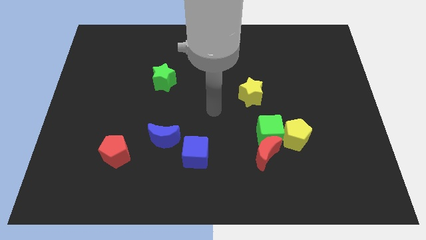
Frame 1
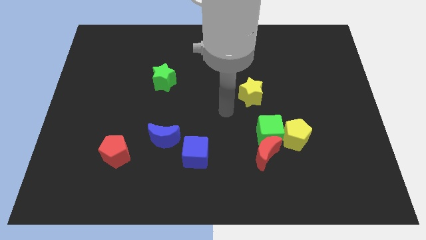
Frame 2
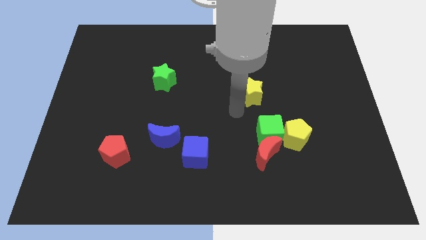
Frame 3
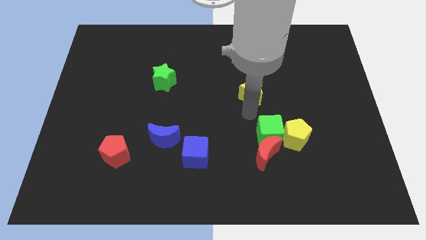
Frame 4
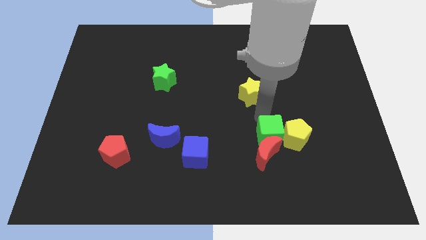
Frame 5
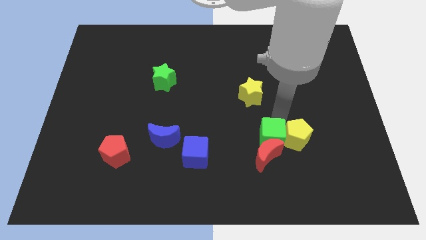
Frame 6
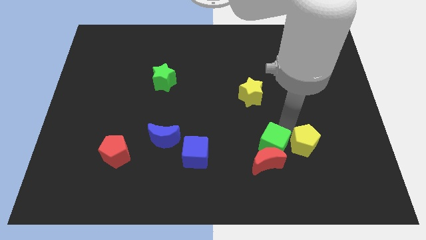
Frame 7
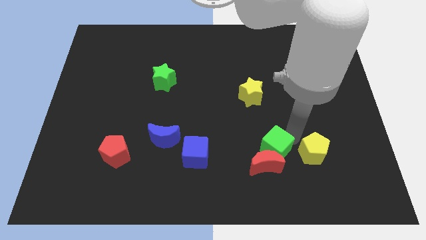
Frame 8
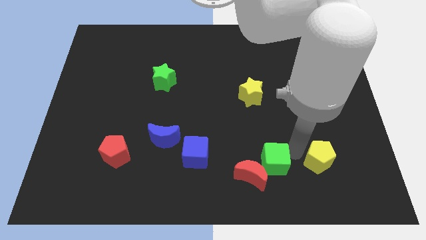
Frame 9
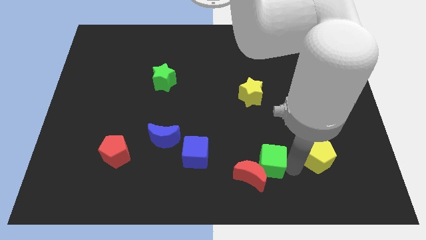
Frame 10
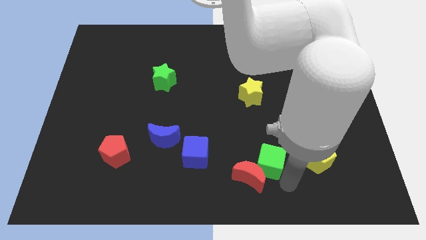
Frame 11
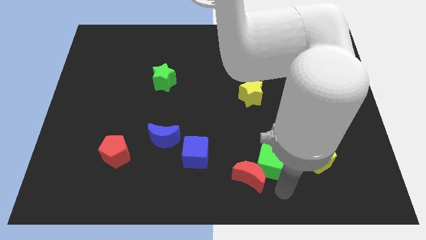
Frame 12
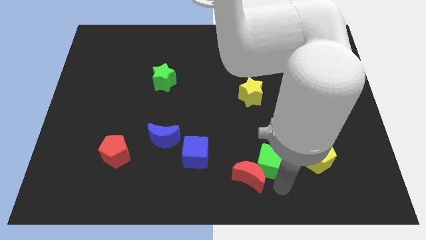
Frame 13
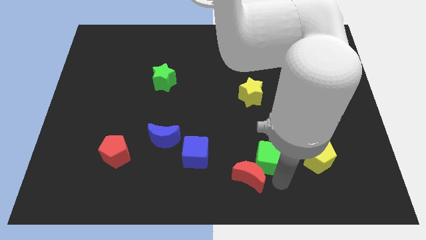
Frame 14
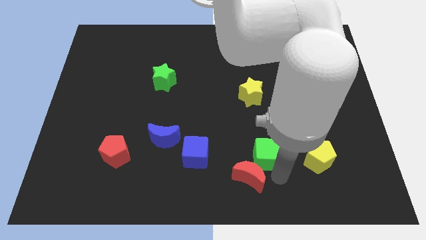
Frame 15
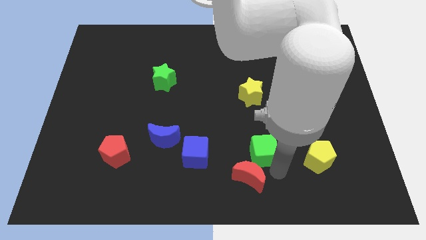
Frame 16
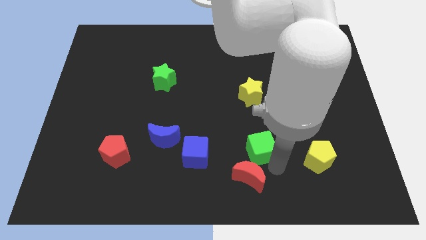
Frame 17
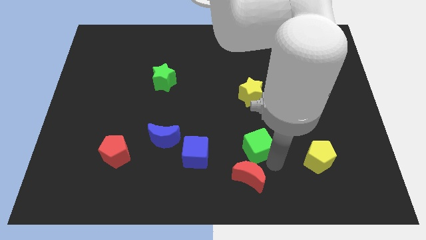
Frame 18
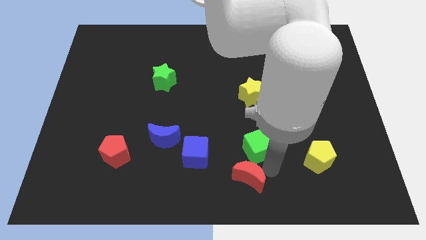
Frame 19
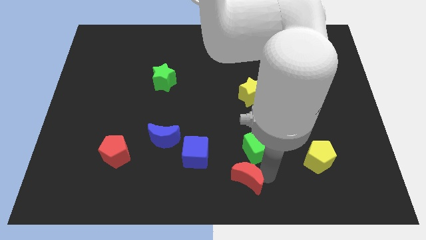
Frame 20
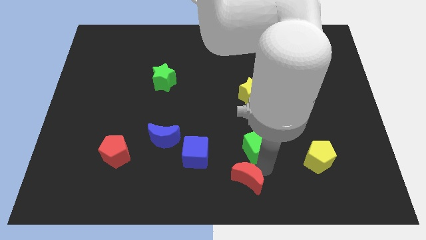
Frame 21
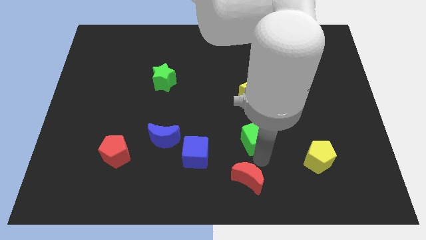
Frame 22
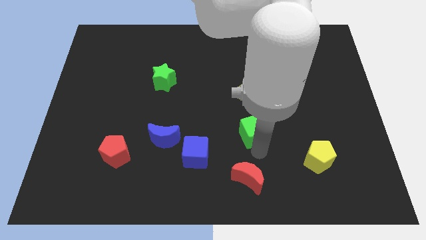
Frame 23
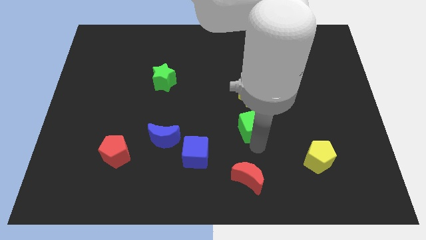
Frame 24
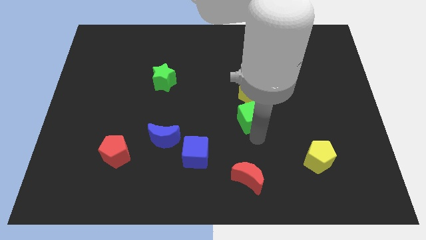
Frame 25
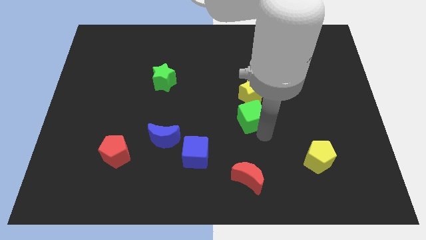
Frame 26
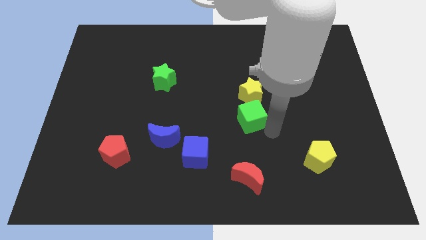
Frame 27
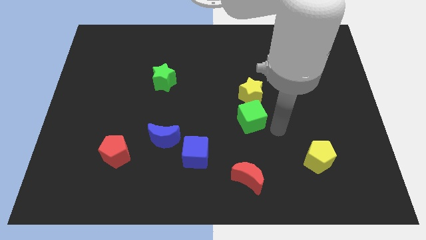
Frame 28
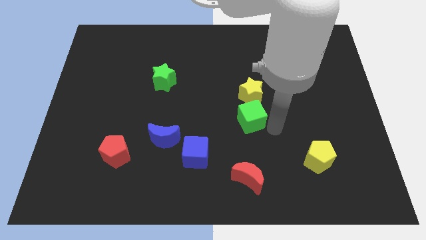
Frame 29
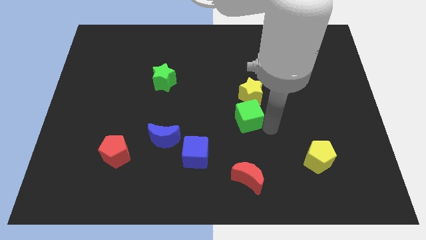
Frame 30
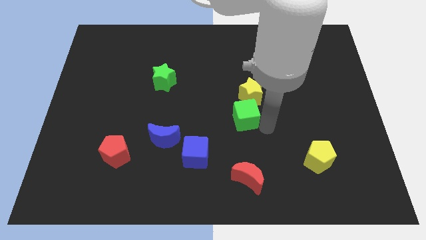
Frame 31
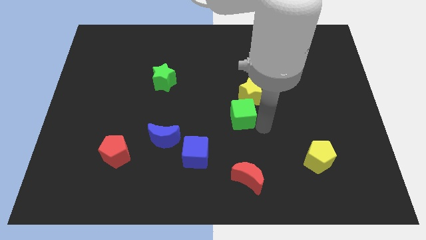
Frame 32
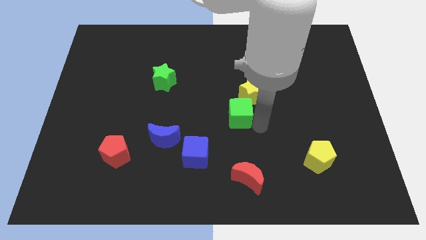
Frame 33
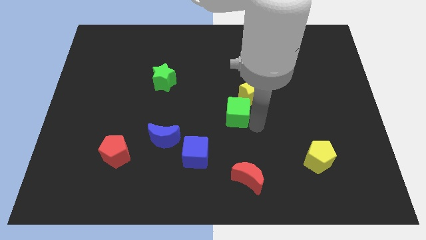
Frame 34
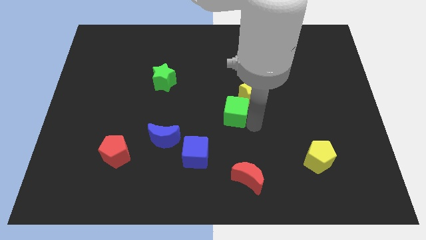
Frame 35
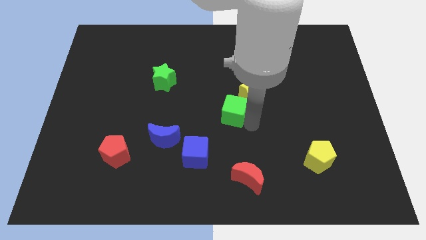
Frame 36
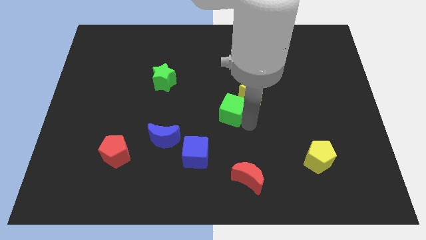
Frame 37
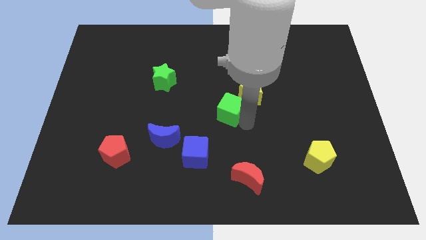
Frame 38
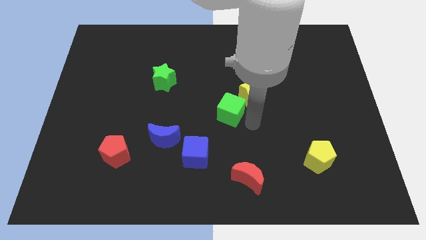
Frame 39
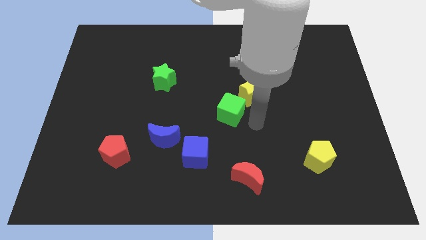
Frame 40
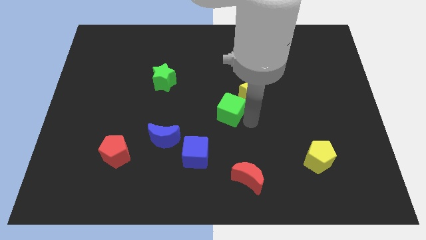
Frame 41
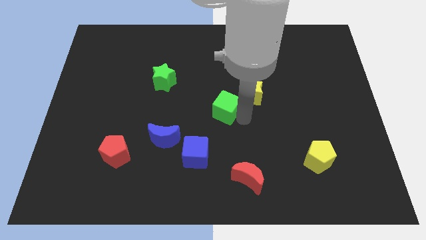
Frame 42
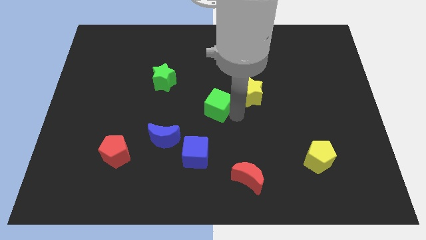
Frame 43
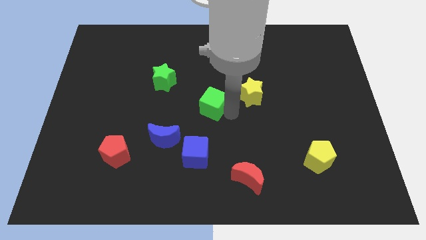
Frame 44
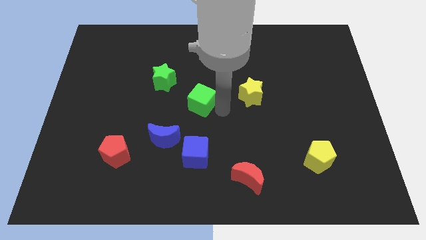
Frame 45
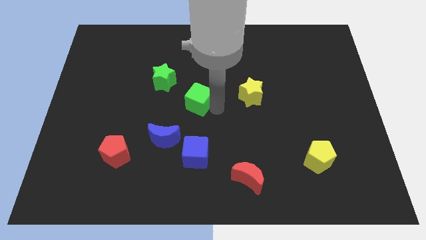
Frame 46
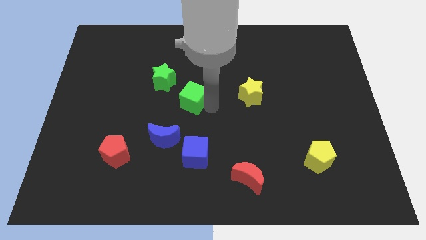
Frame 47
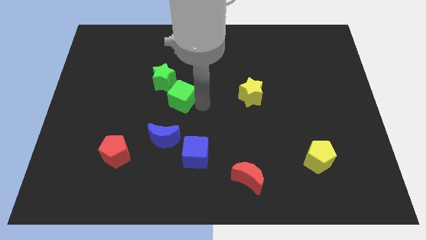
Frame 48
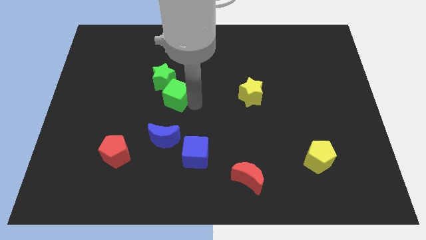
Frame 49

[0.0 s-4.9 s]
move the green cube towards the green star

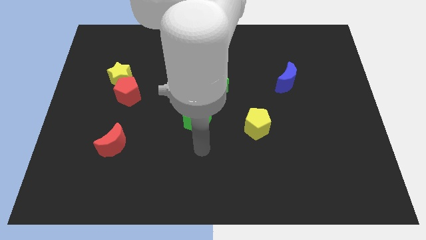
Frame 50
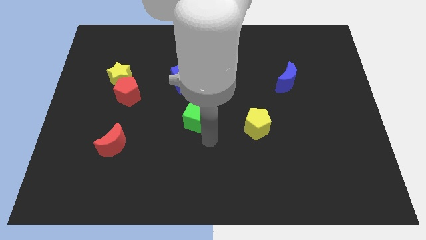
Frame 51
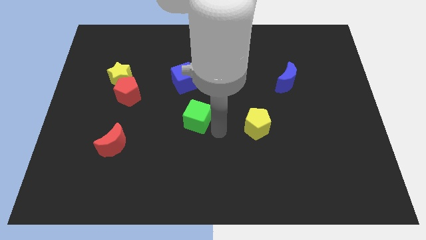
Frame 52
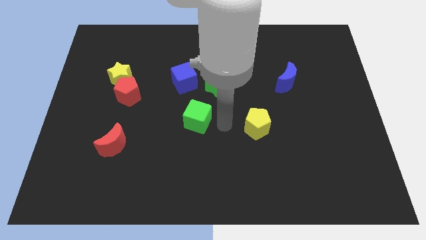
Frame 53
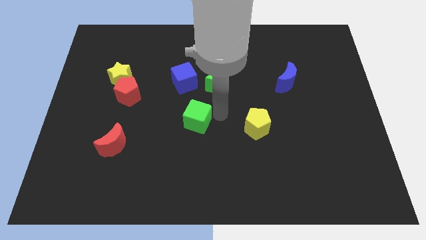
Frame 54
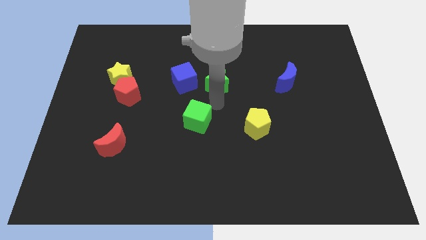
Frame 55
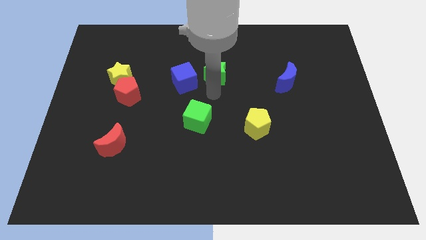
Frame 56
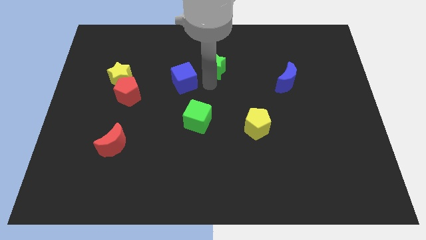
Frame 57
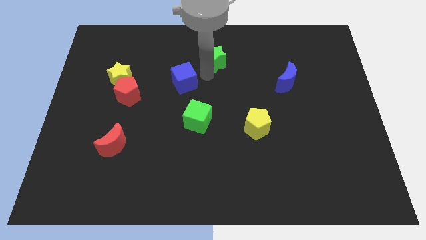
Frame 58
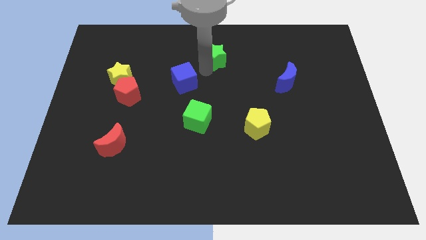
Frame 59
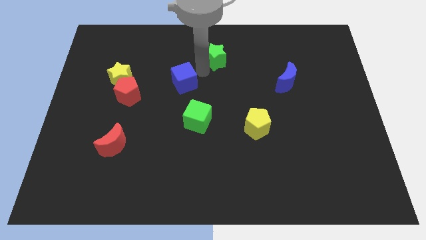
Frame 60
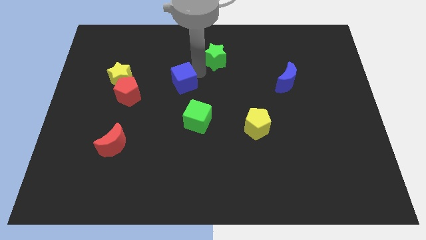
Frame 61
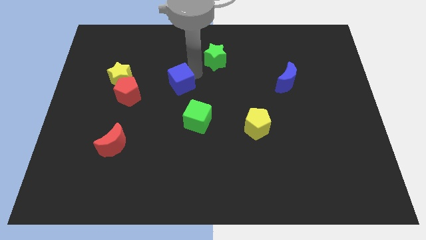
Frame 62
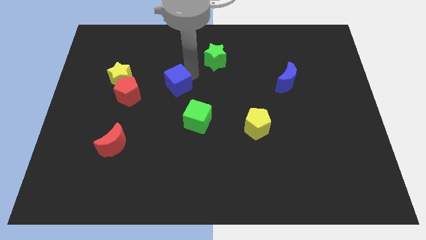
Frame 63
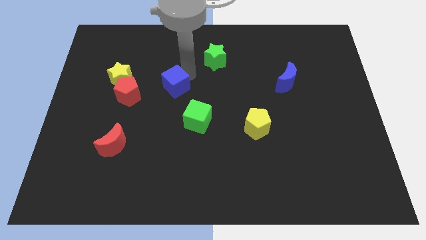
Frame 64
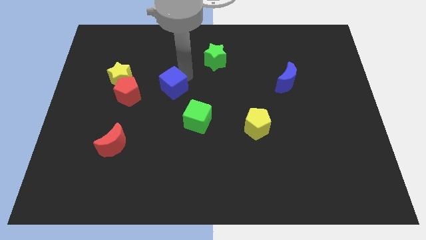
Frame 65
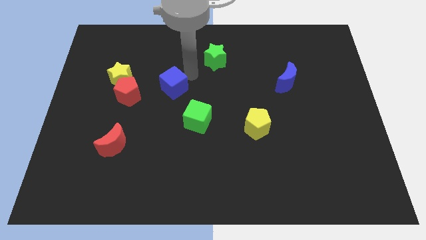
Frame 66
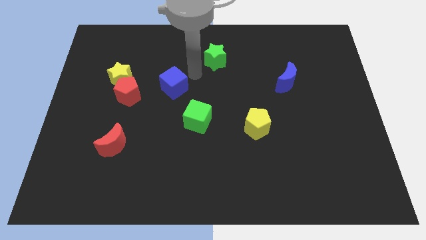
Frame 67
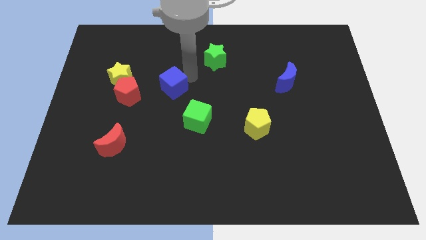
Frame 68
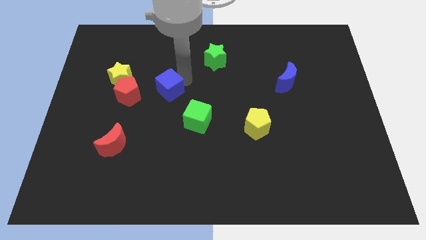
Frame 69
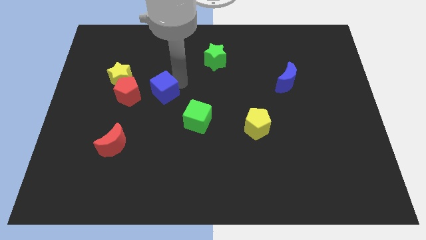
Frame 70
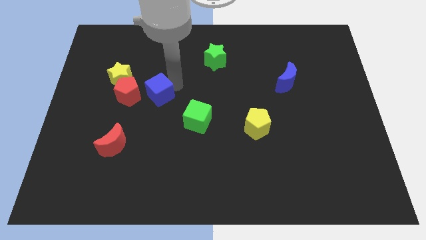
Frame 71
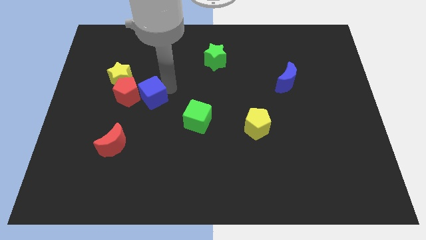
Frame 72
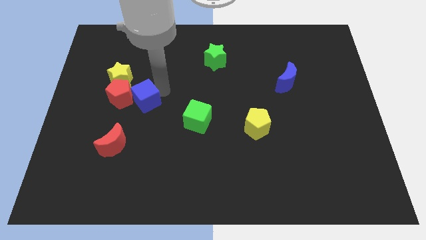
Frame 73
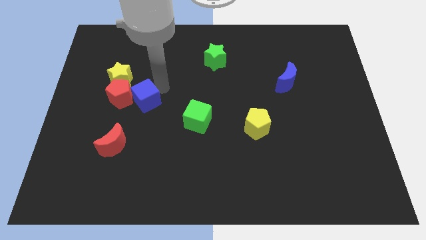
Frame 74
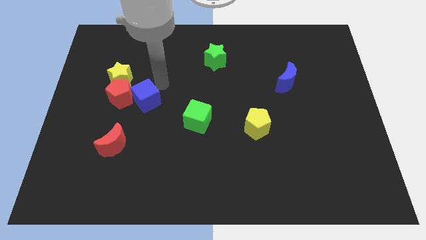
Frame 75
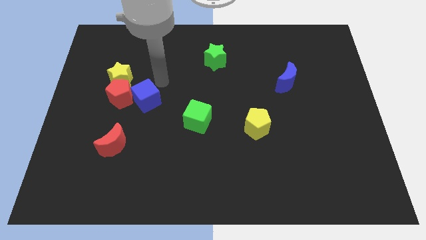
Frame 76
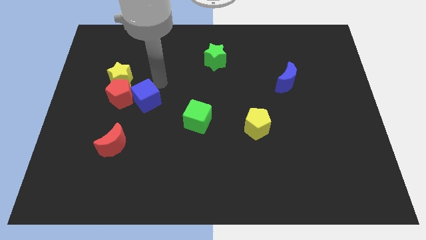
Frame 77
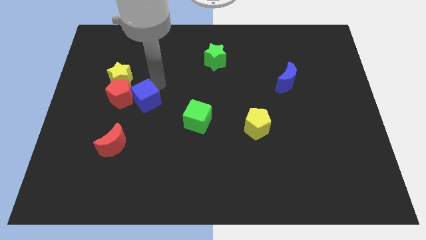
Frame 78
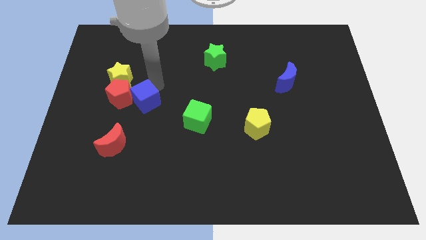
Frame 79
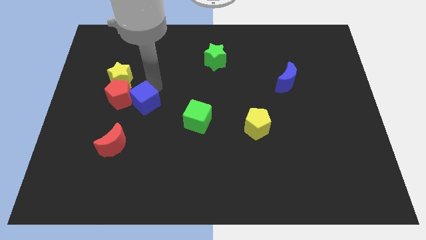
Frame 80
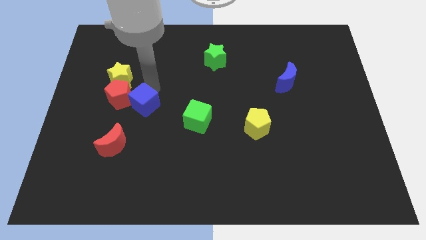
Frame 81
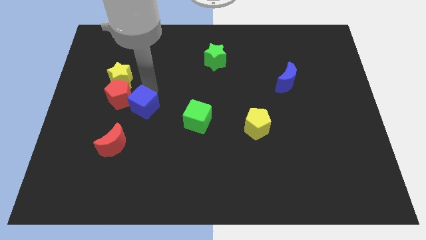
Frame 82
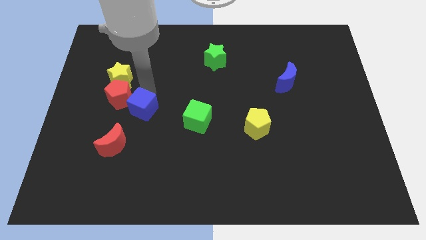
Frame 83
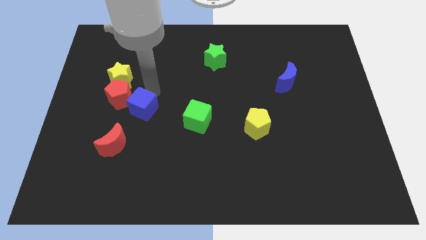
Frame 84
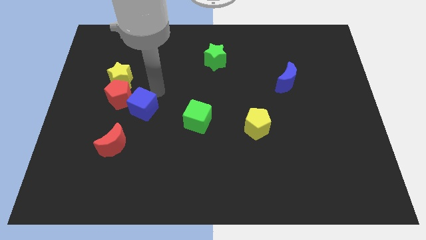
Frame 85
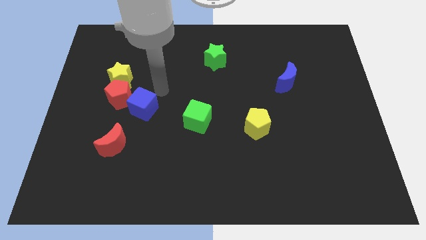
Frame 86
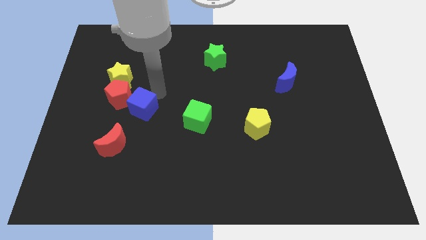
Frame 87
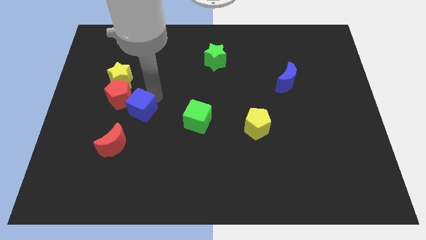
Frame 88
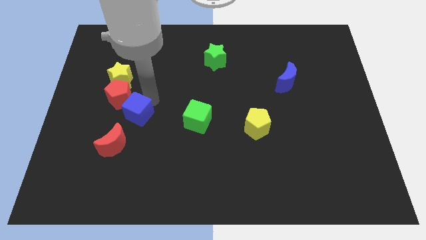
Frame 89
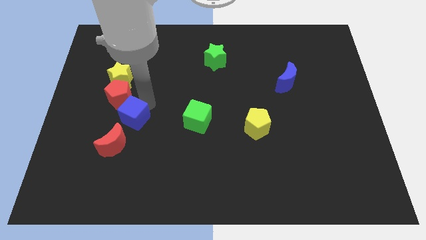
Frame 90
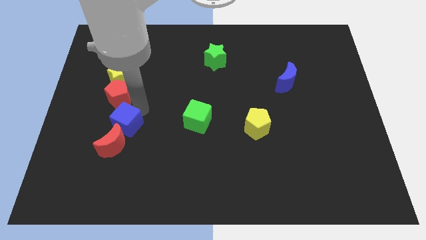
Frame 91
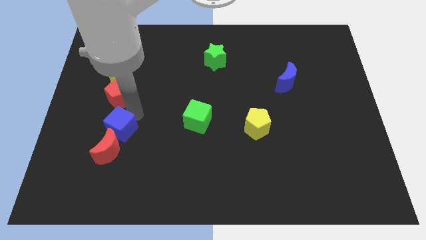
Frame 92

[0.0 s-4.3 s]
move the blue cube close to the red moon
